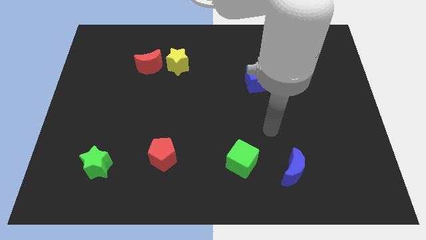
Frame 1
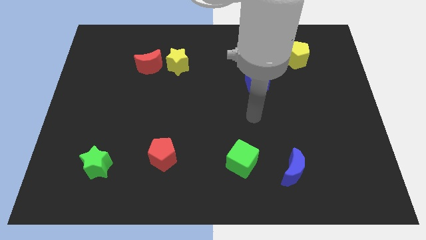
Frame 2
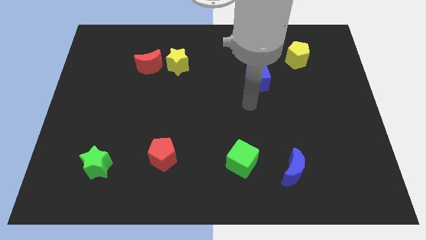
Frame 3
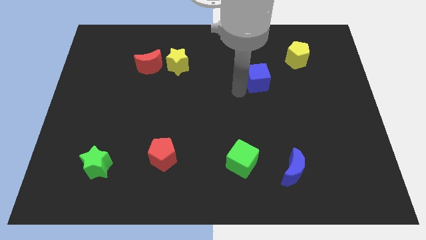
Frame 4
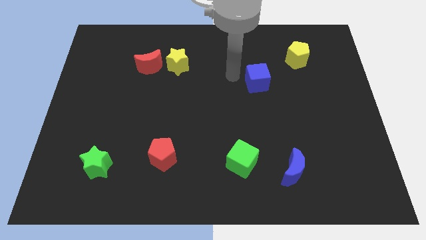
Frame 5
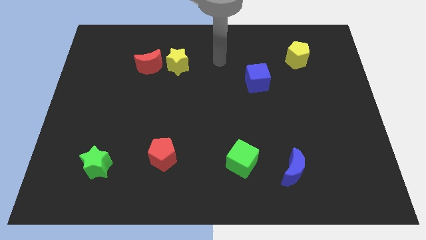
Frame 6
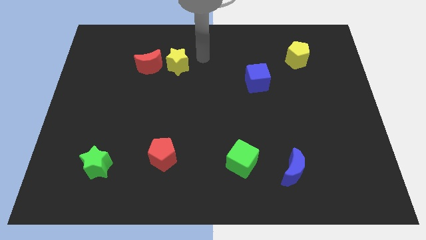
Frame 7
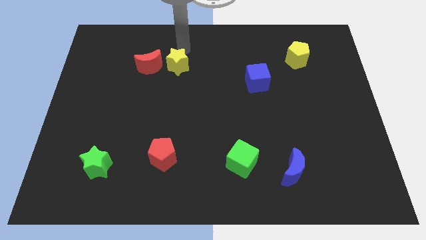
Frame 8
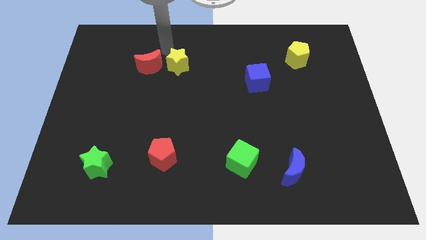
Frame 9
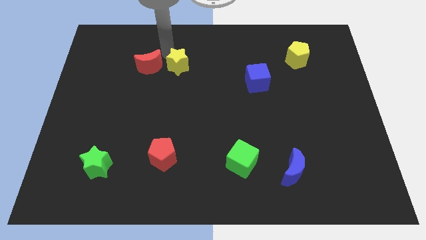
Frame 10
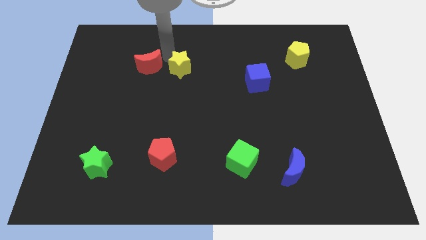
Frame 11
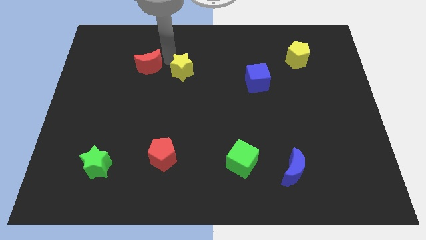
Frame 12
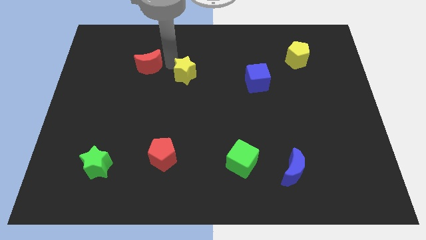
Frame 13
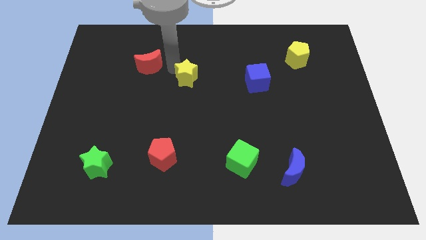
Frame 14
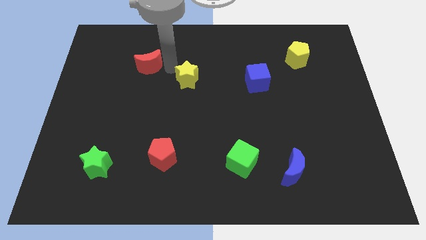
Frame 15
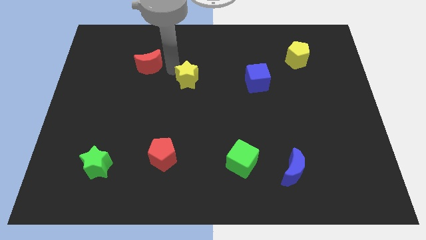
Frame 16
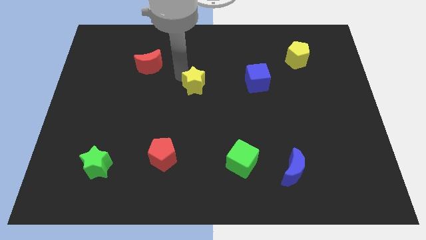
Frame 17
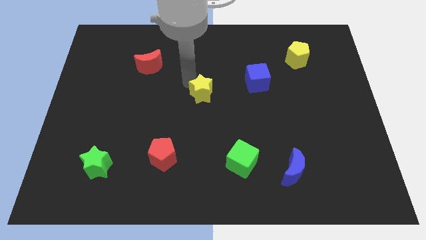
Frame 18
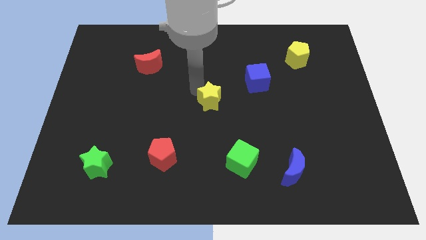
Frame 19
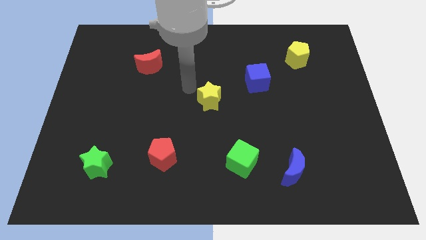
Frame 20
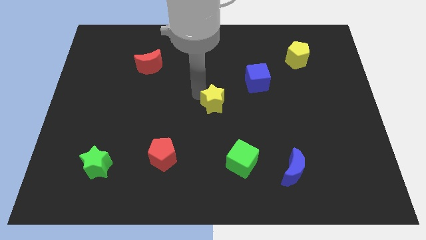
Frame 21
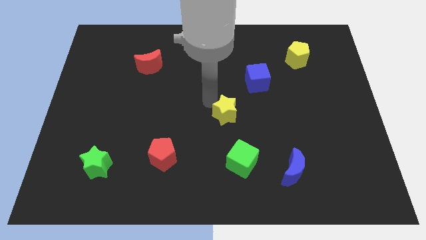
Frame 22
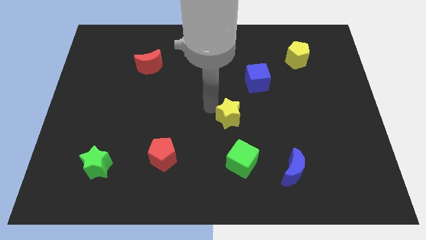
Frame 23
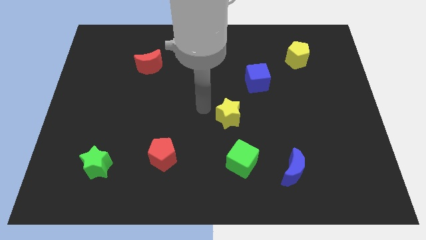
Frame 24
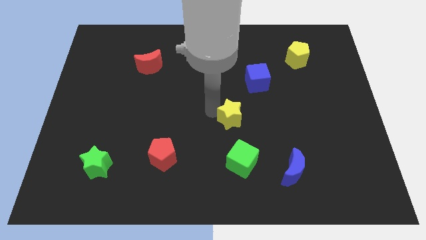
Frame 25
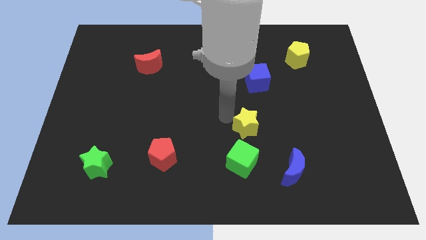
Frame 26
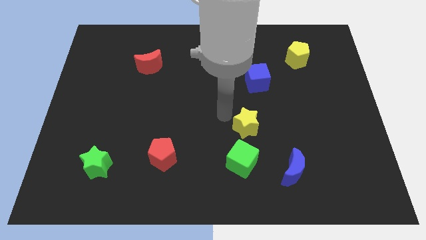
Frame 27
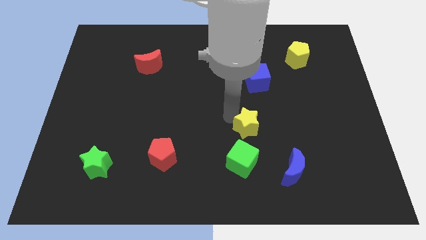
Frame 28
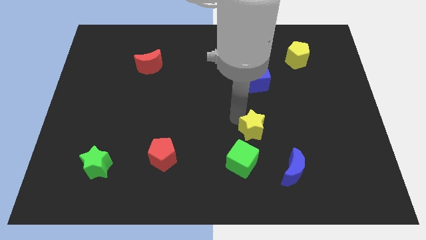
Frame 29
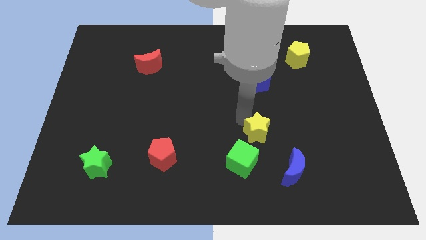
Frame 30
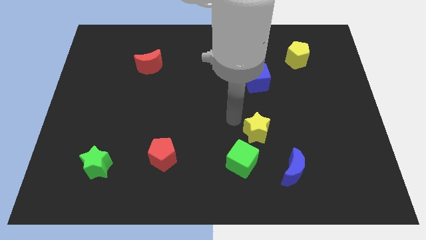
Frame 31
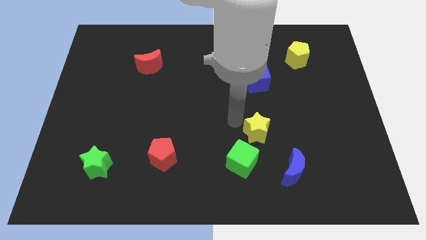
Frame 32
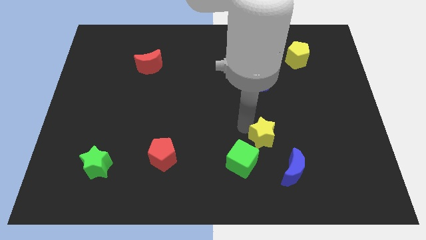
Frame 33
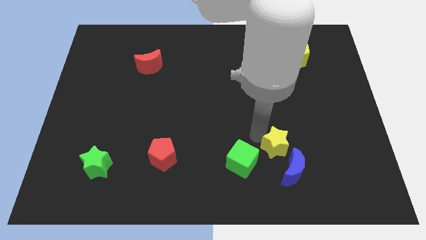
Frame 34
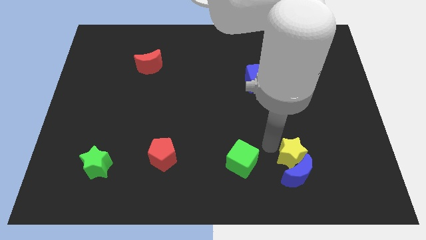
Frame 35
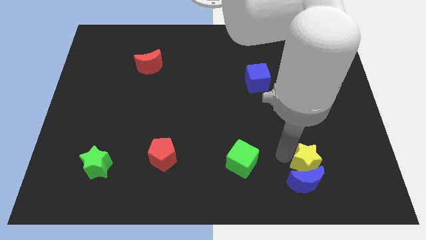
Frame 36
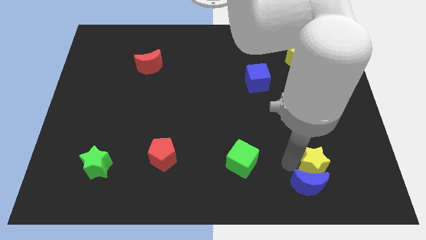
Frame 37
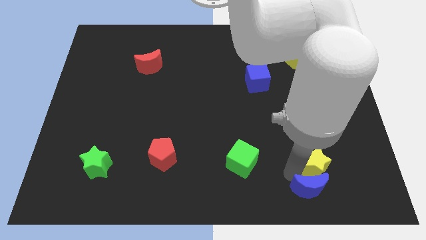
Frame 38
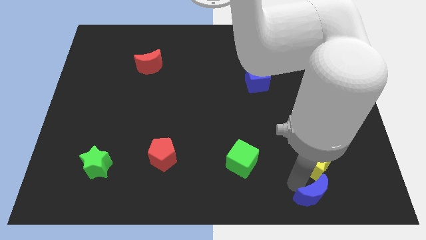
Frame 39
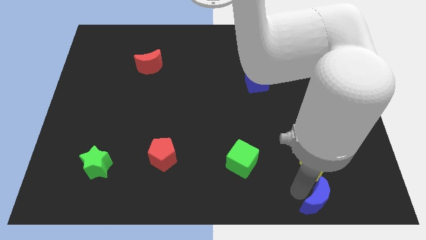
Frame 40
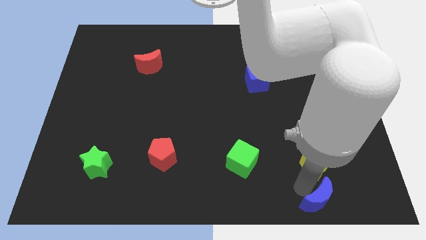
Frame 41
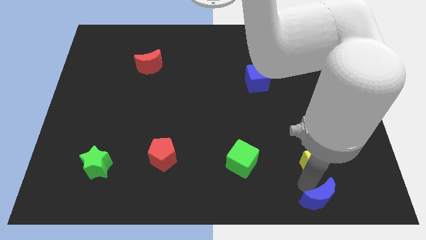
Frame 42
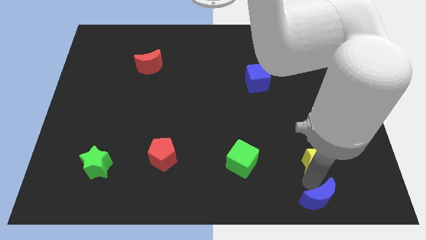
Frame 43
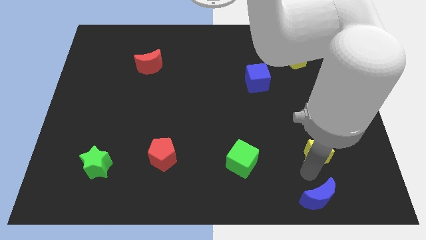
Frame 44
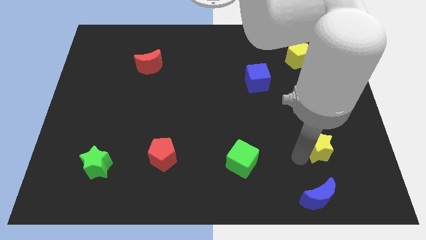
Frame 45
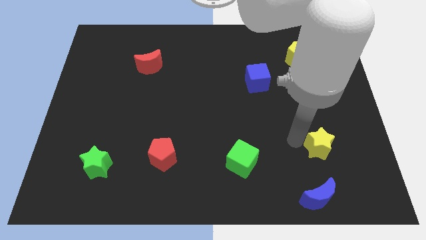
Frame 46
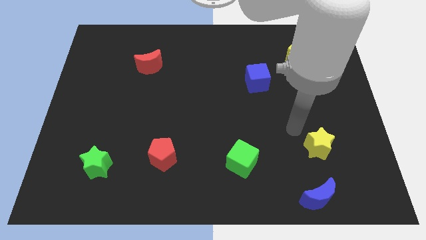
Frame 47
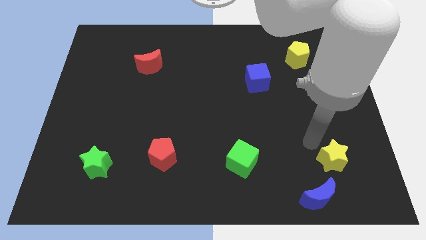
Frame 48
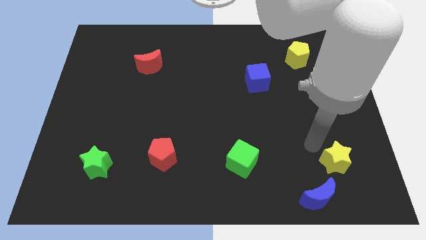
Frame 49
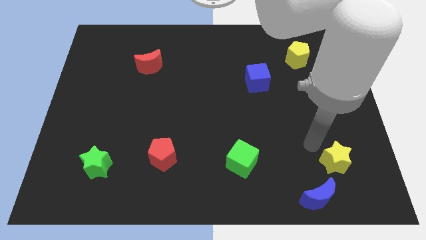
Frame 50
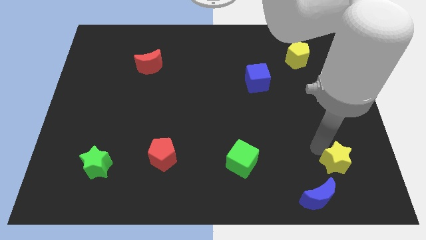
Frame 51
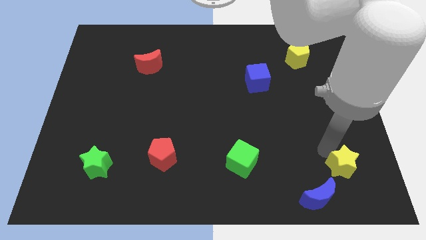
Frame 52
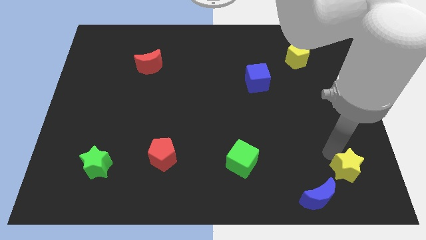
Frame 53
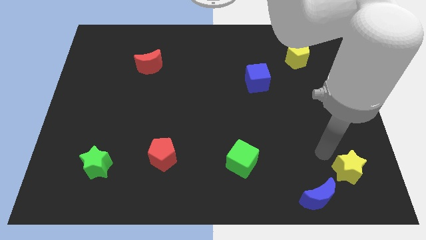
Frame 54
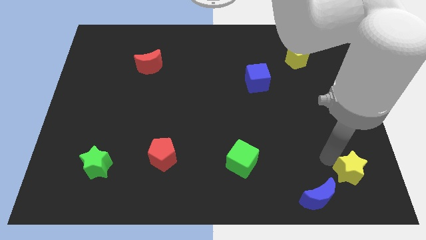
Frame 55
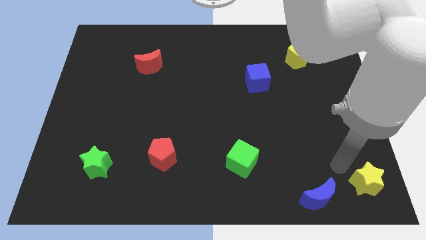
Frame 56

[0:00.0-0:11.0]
put the yellow star to the bottom right of the board
